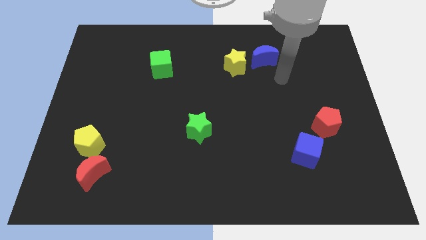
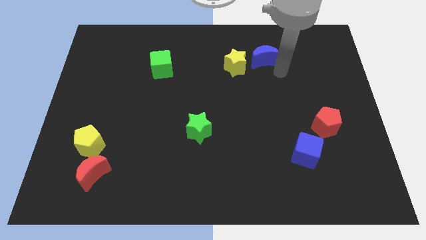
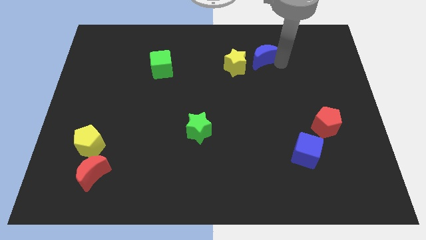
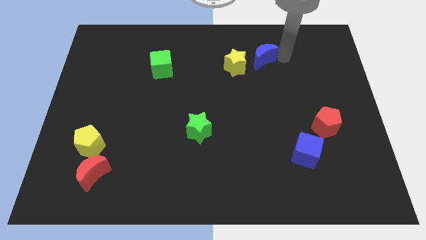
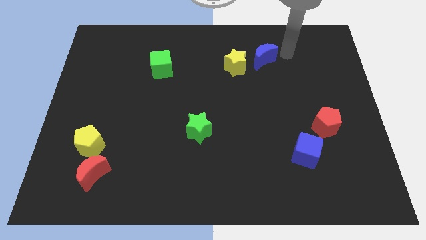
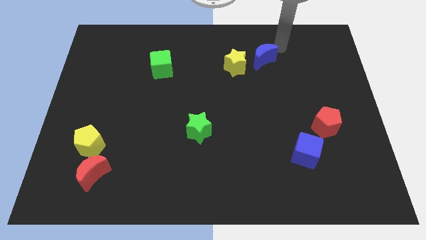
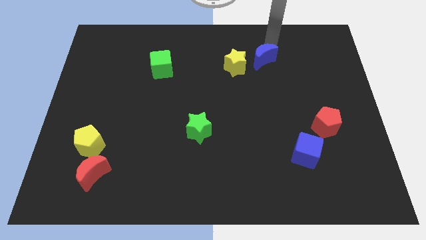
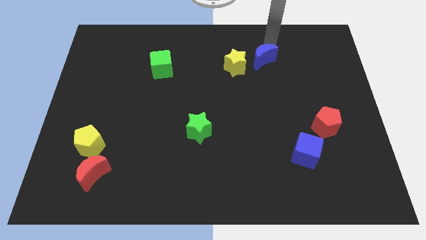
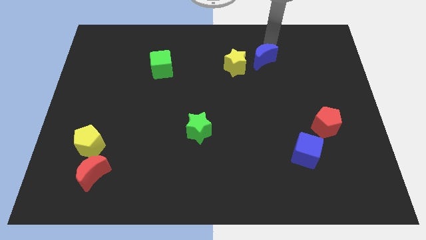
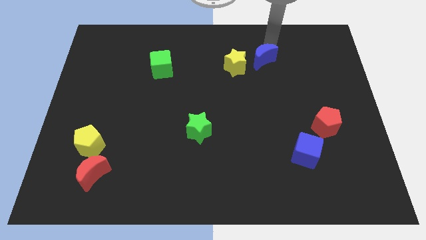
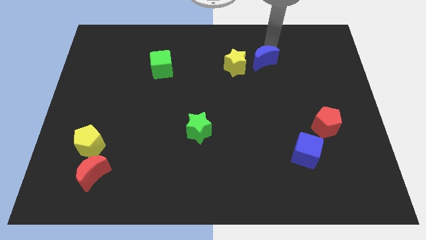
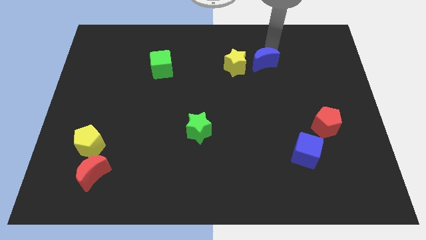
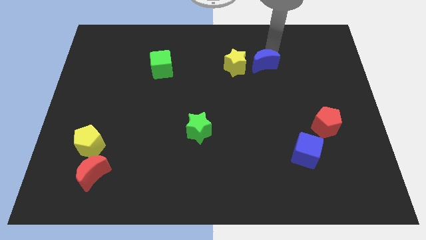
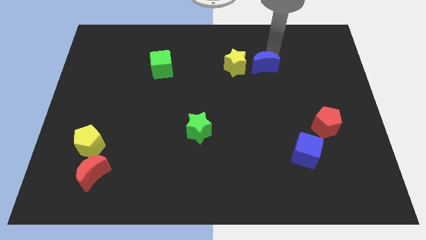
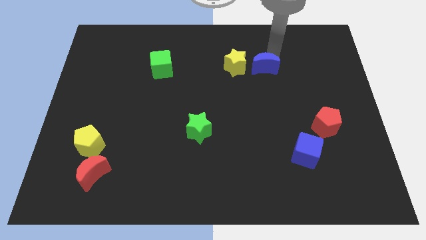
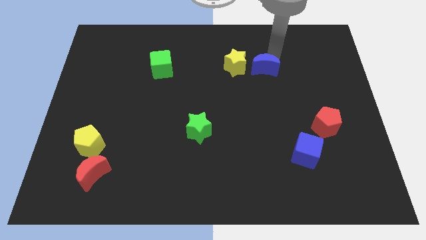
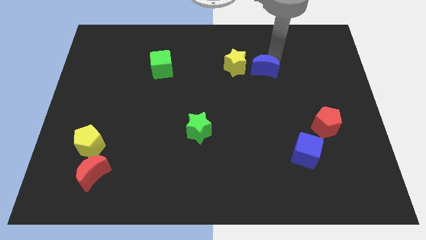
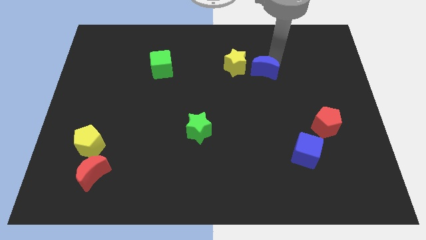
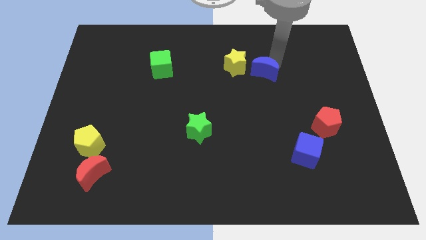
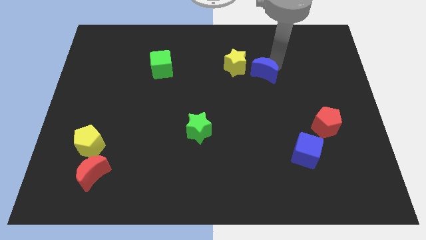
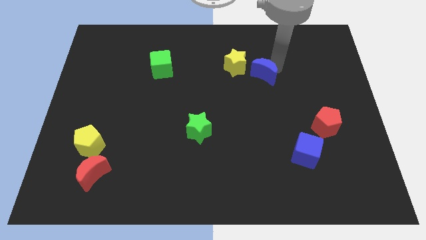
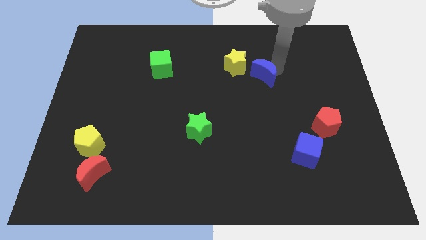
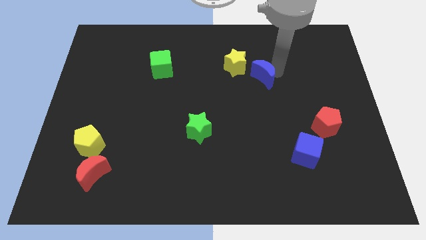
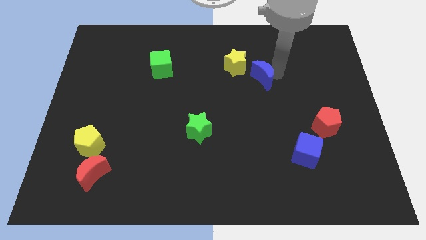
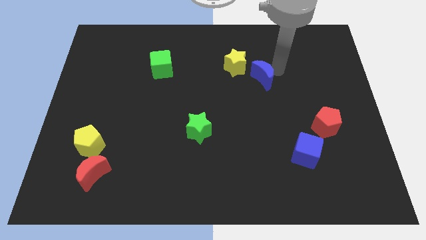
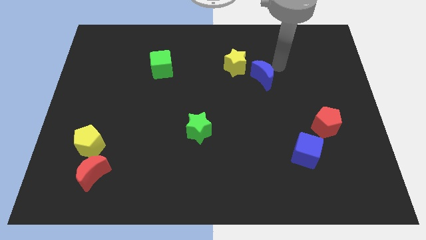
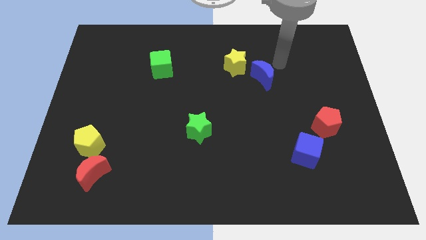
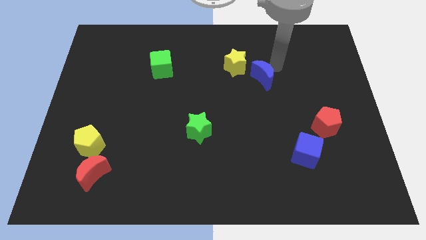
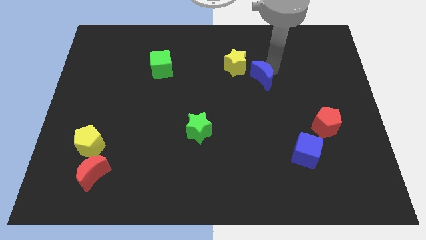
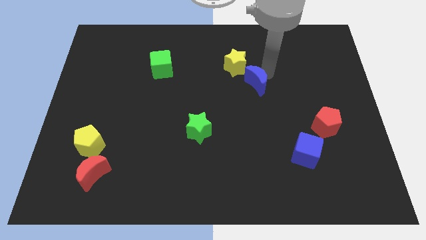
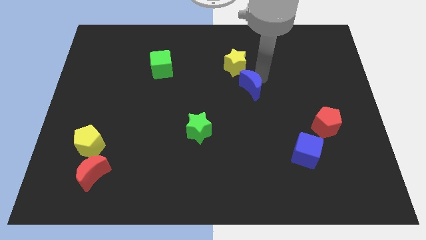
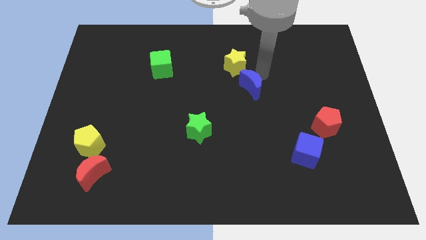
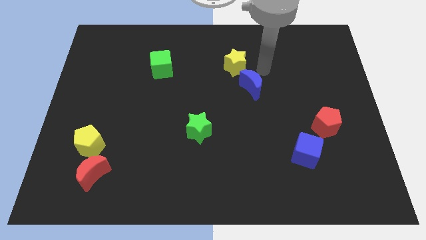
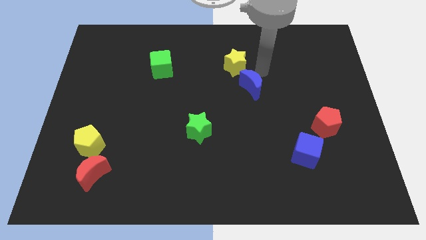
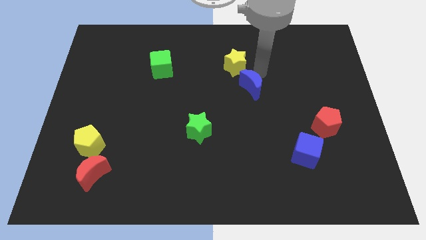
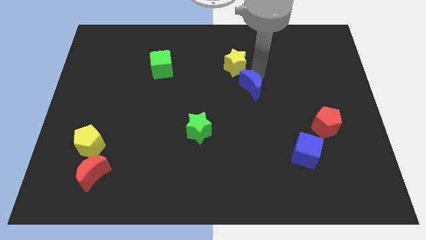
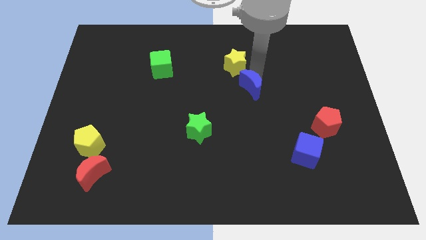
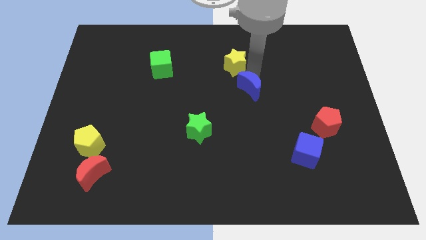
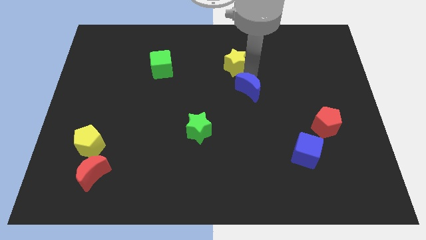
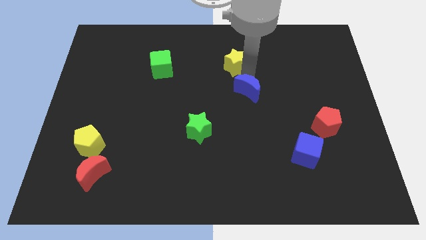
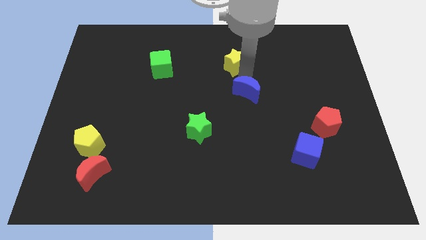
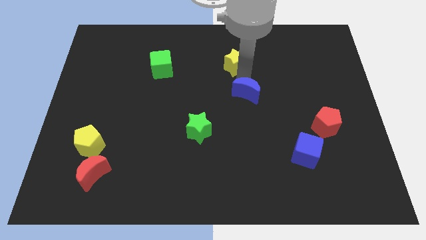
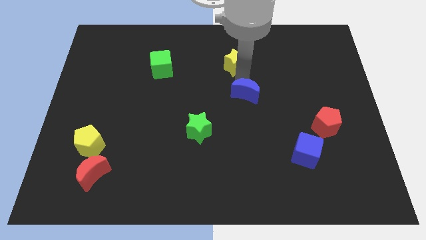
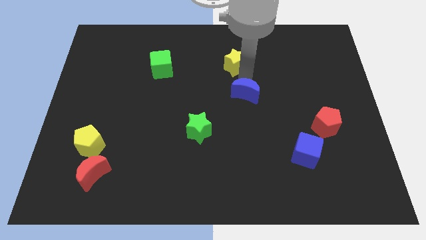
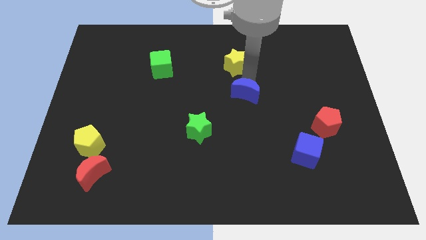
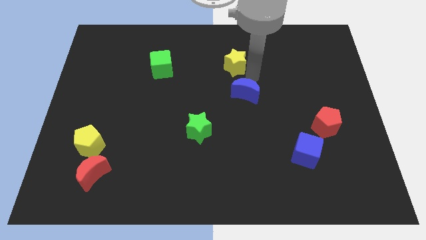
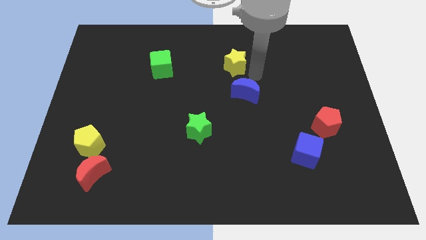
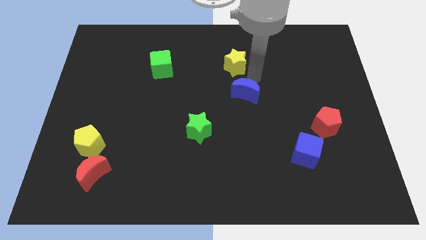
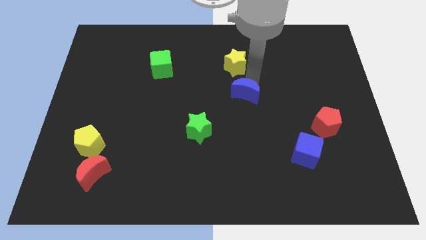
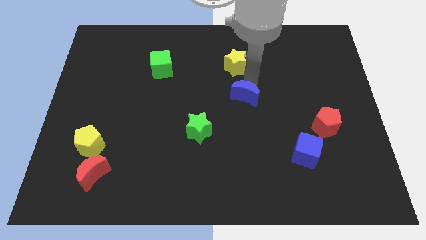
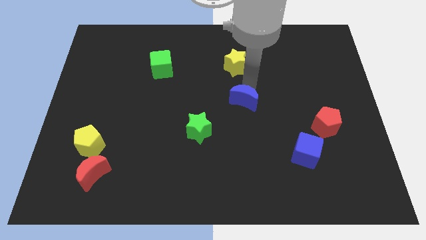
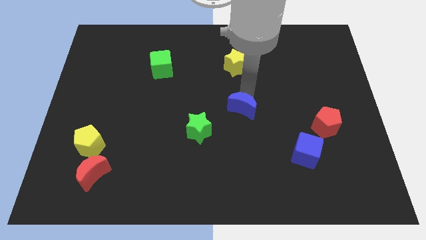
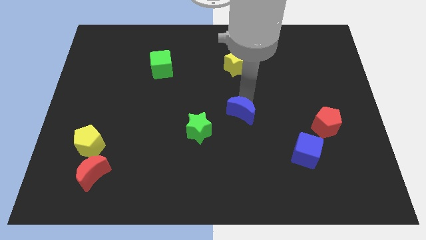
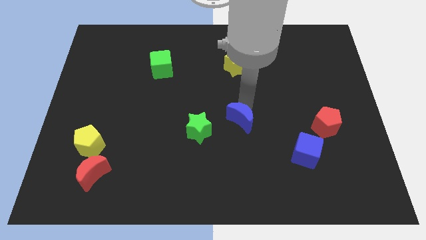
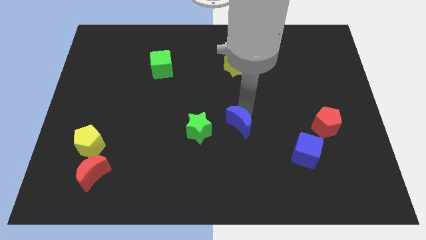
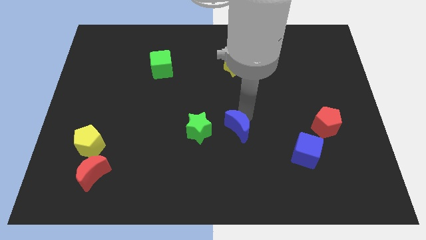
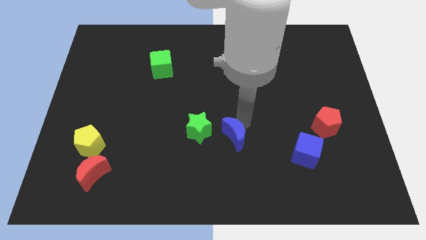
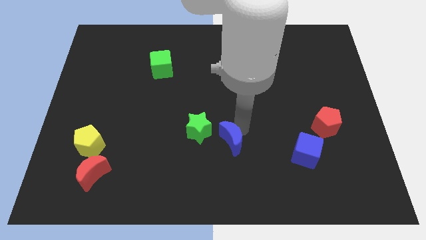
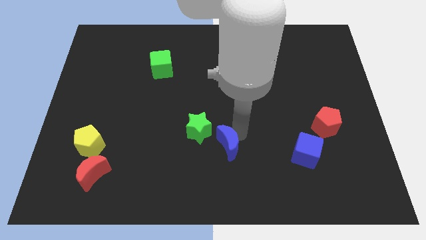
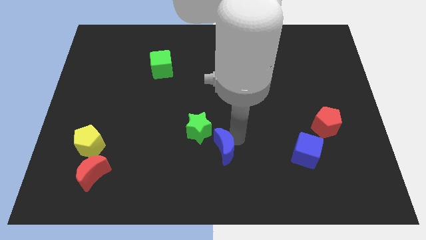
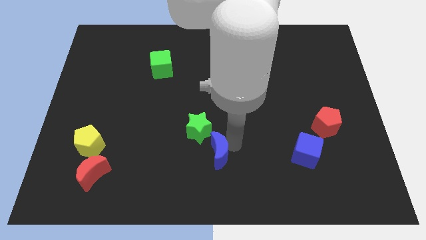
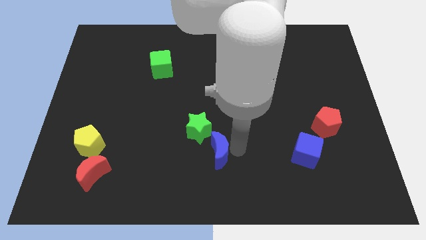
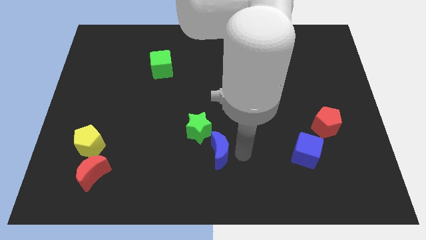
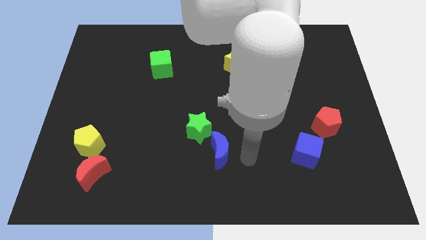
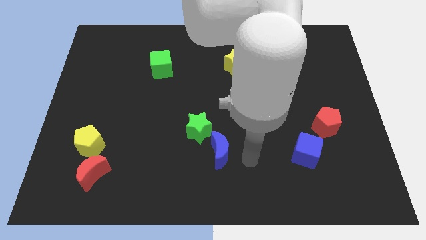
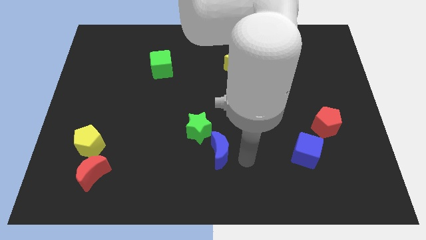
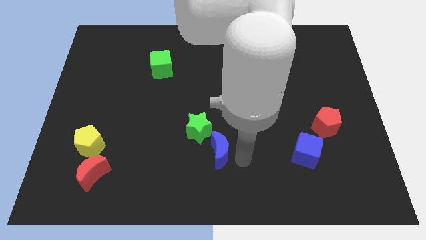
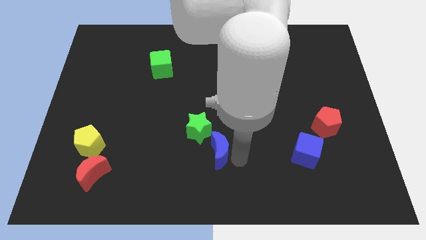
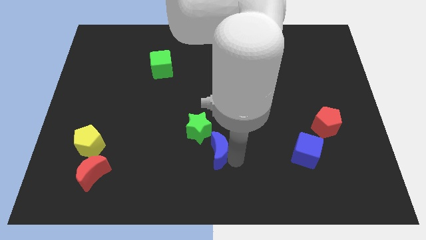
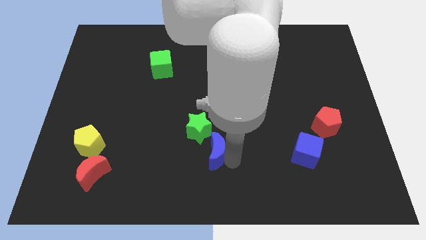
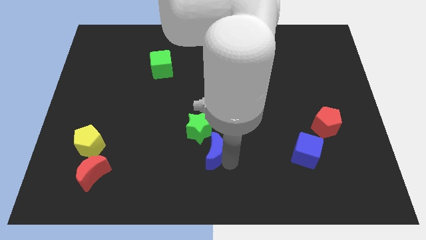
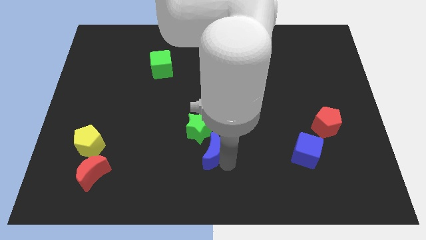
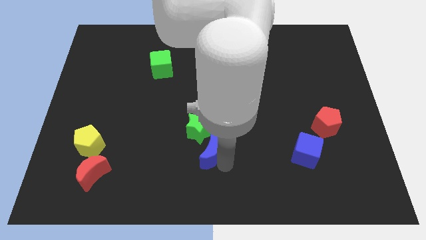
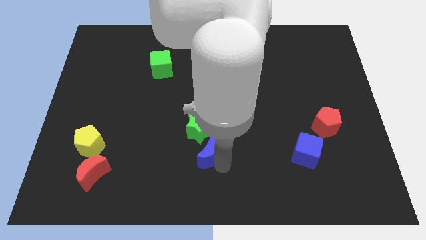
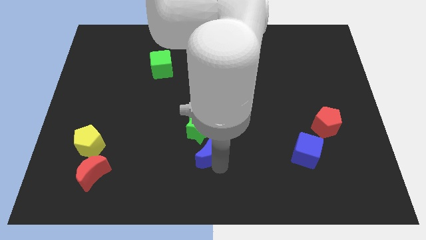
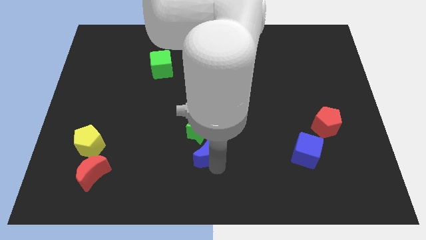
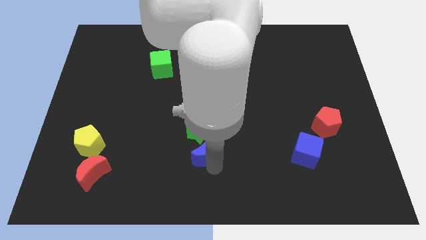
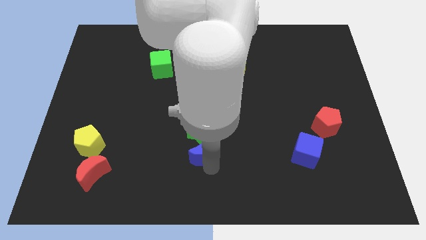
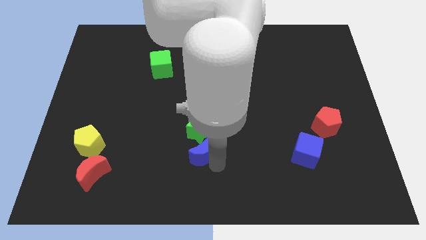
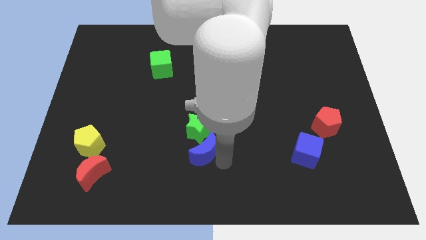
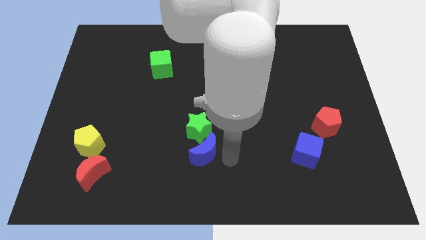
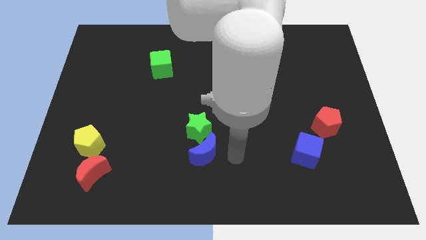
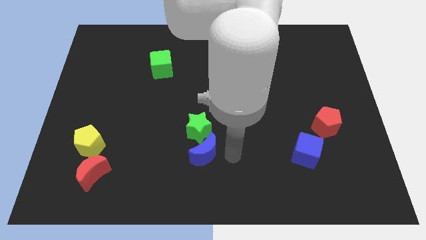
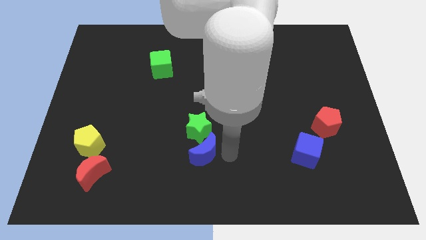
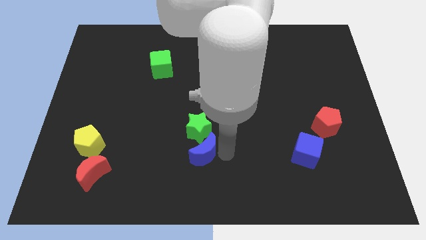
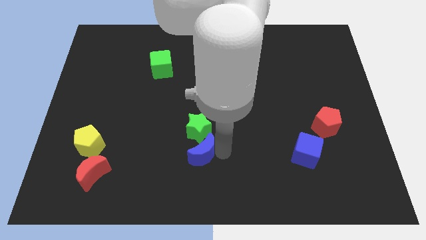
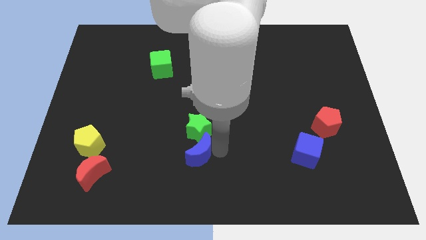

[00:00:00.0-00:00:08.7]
push the blue moon to the bottom left side of the green star
